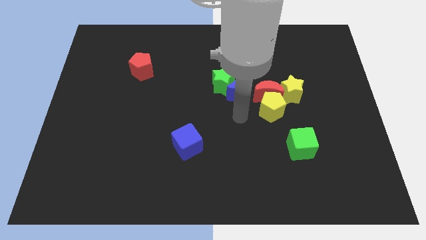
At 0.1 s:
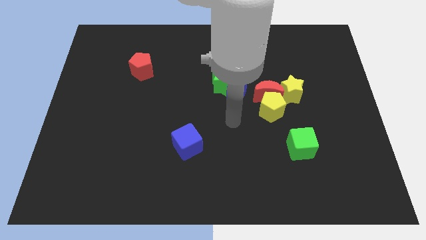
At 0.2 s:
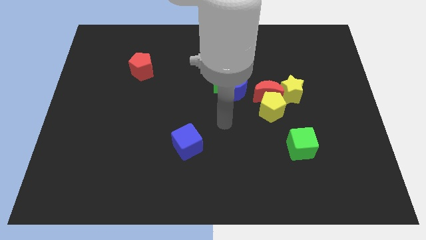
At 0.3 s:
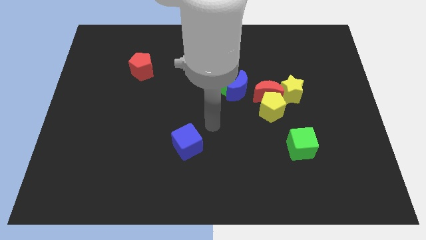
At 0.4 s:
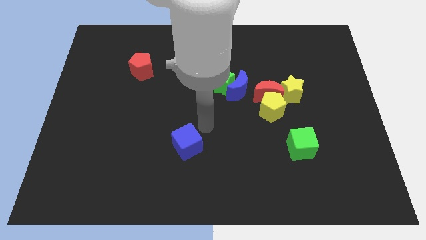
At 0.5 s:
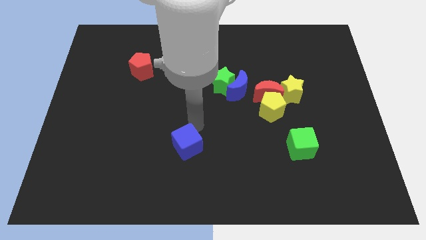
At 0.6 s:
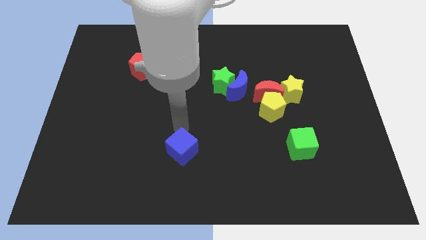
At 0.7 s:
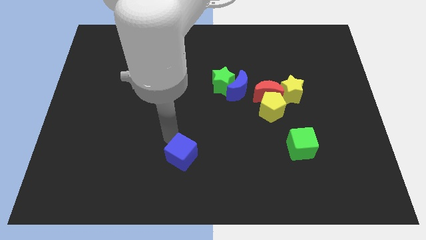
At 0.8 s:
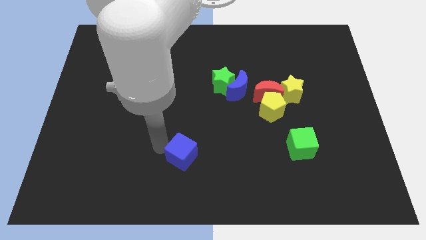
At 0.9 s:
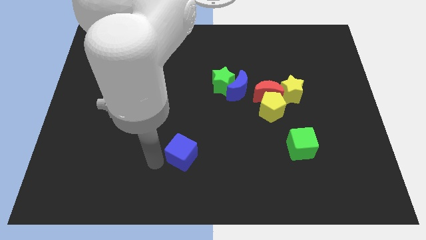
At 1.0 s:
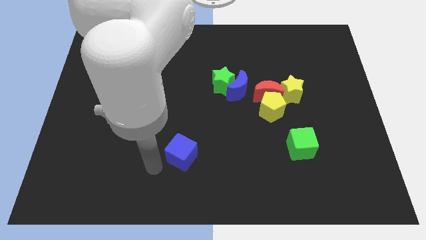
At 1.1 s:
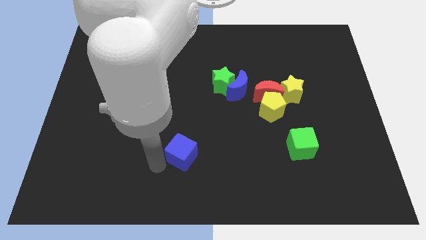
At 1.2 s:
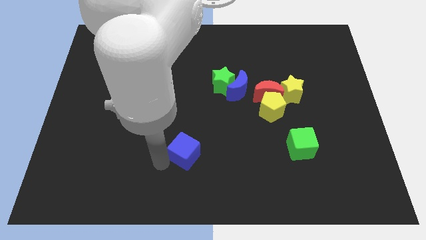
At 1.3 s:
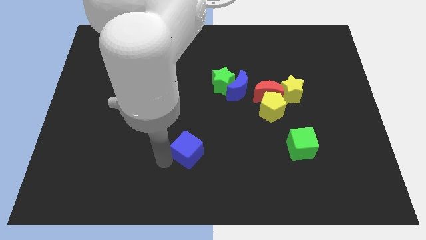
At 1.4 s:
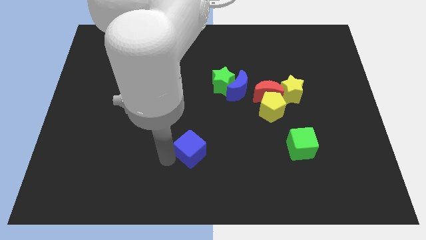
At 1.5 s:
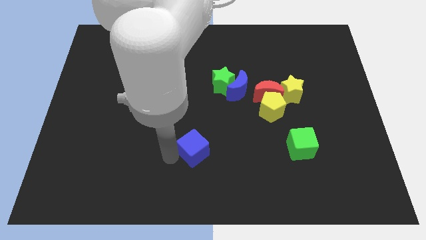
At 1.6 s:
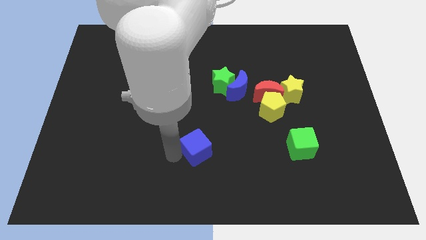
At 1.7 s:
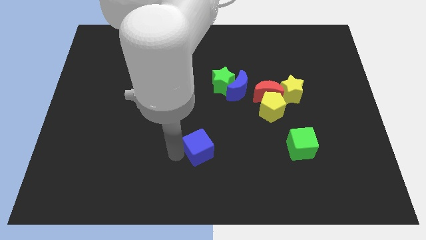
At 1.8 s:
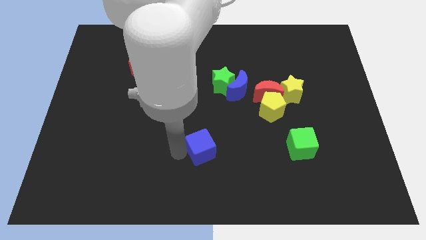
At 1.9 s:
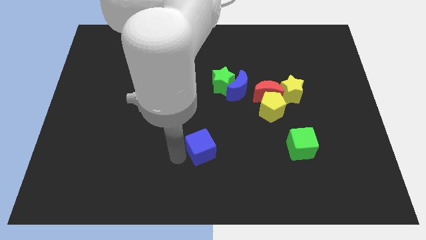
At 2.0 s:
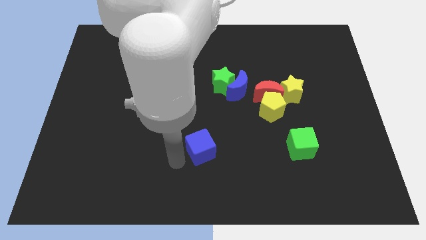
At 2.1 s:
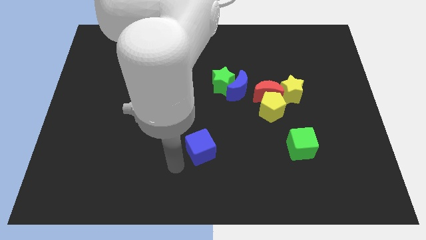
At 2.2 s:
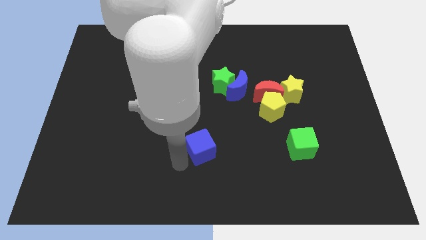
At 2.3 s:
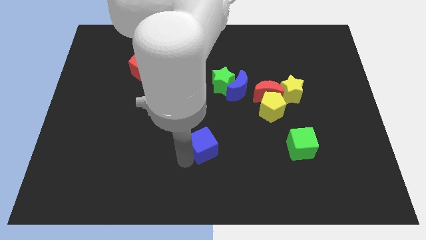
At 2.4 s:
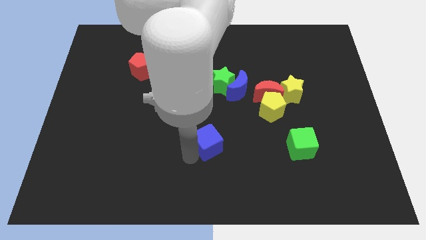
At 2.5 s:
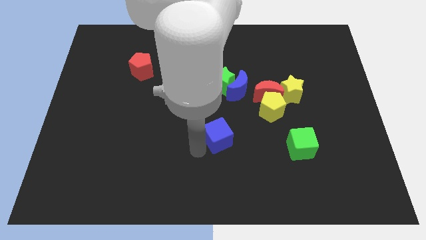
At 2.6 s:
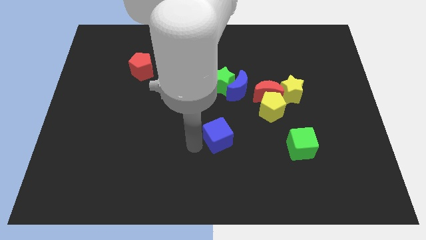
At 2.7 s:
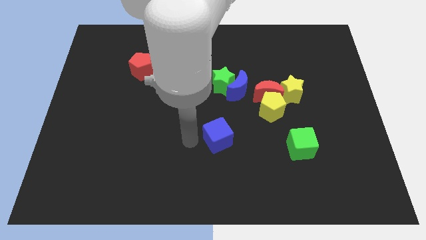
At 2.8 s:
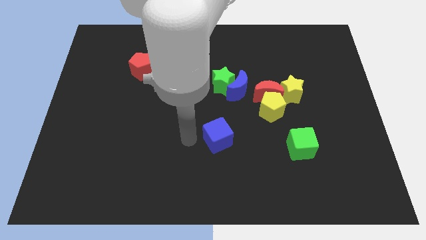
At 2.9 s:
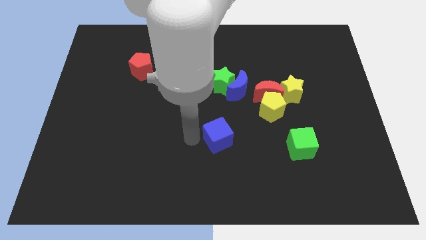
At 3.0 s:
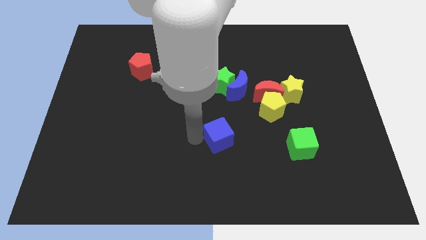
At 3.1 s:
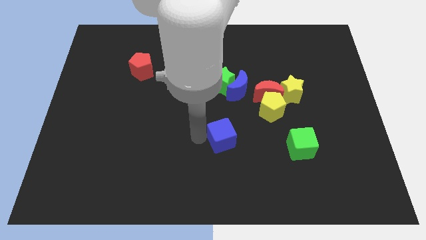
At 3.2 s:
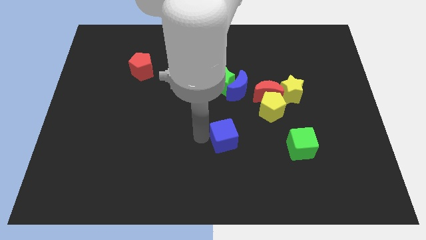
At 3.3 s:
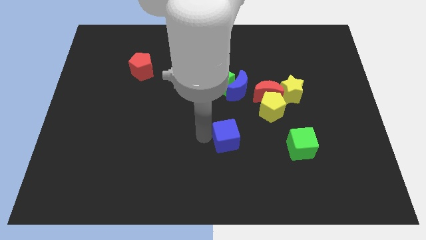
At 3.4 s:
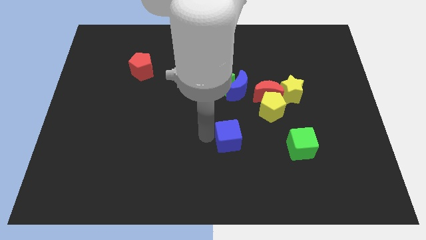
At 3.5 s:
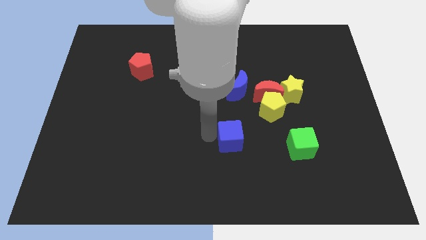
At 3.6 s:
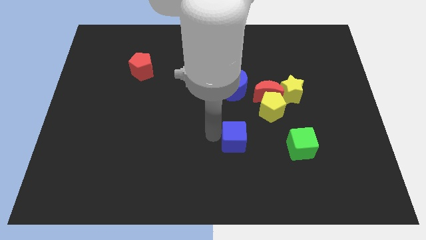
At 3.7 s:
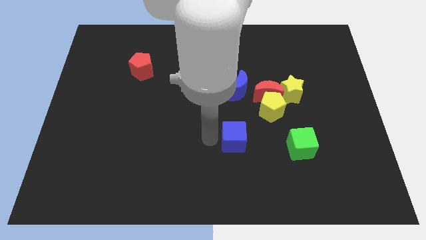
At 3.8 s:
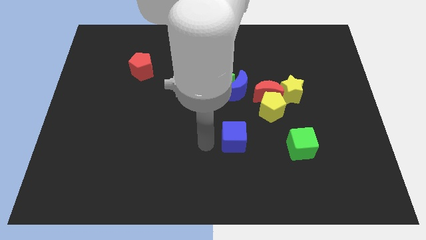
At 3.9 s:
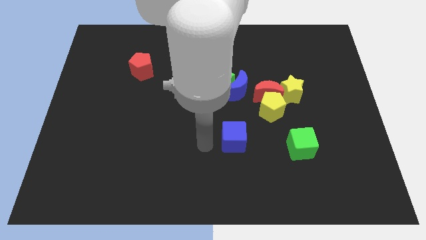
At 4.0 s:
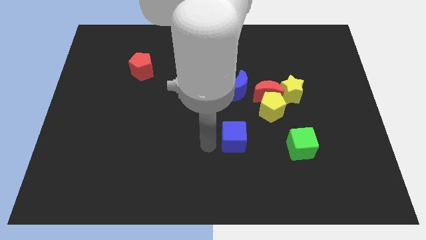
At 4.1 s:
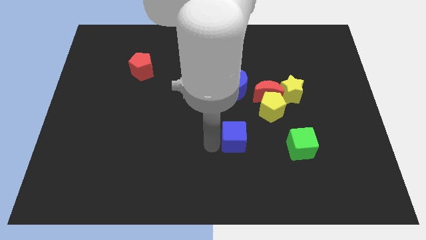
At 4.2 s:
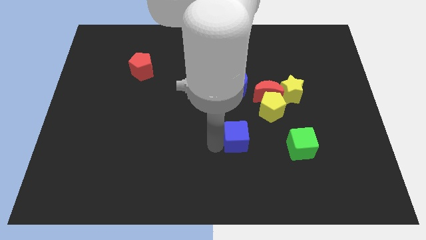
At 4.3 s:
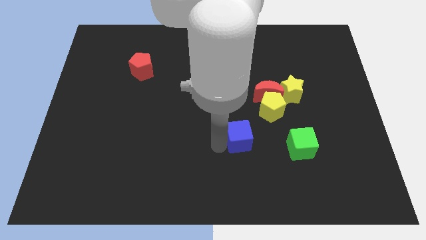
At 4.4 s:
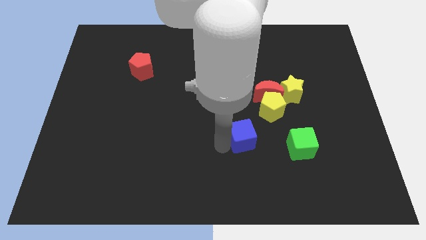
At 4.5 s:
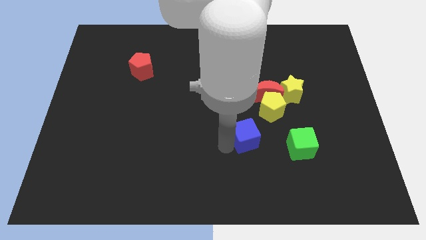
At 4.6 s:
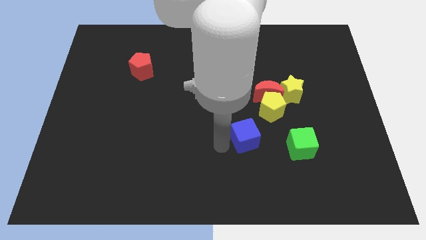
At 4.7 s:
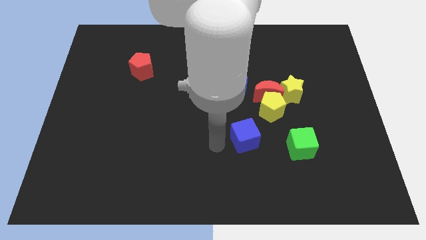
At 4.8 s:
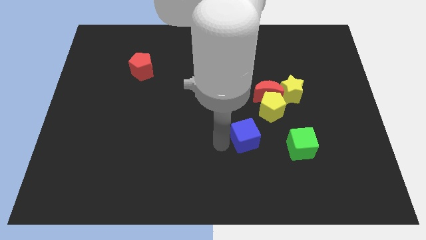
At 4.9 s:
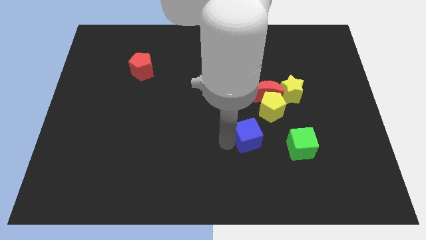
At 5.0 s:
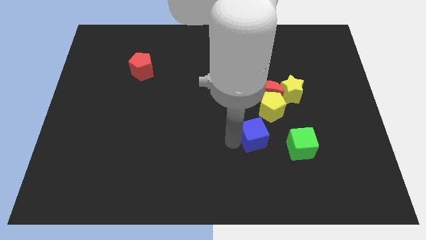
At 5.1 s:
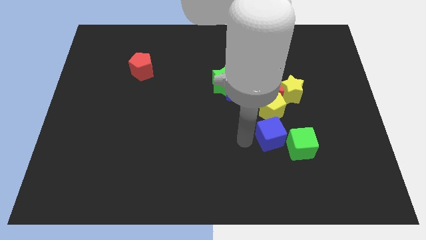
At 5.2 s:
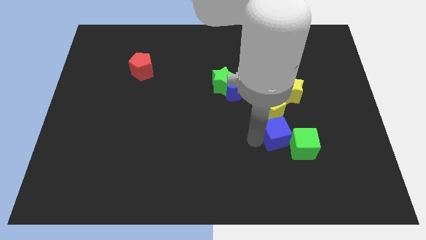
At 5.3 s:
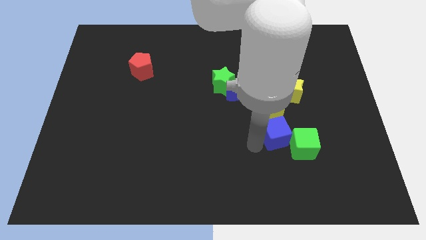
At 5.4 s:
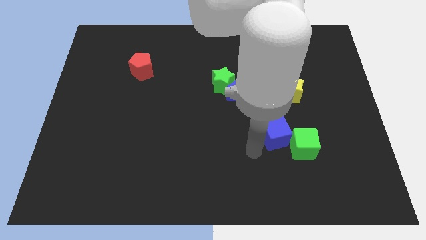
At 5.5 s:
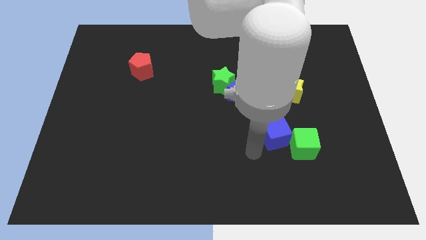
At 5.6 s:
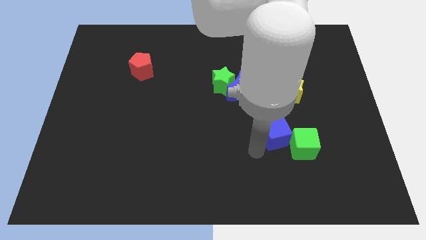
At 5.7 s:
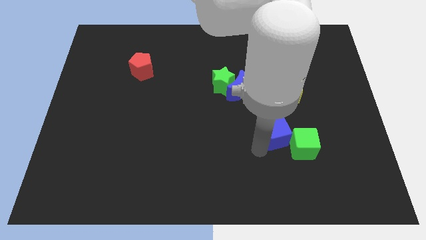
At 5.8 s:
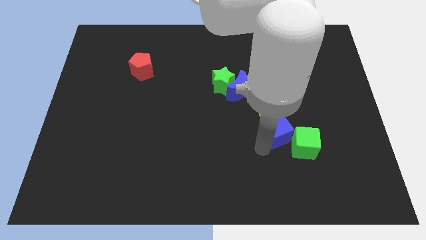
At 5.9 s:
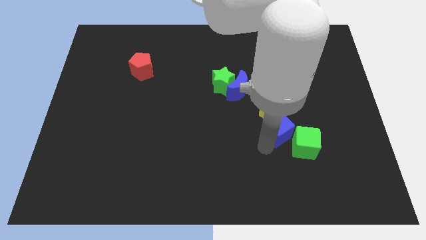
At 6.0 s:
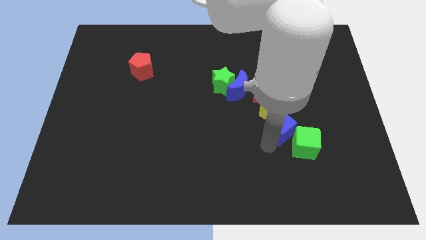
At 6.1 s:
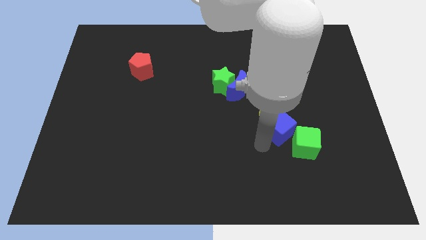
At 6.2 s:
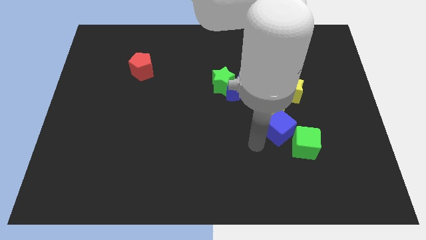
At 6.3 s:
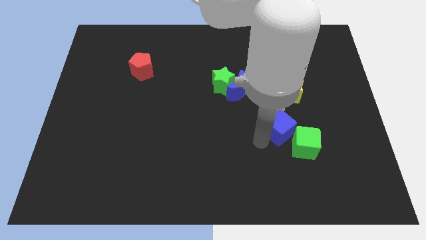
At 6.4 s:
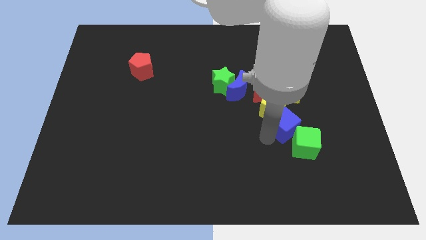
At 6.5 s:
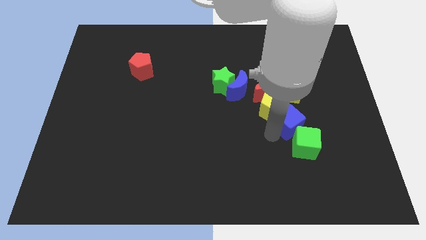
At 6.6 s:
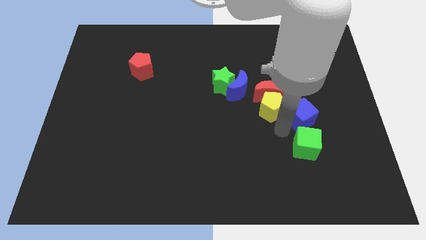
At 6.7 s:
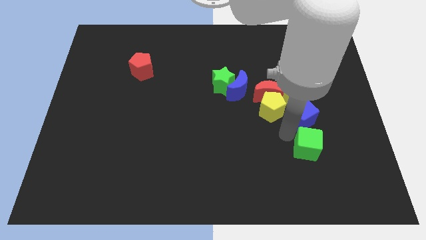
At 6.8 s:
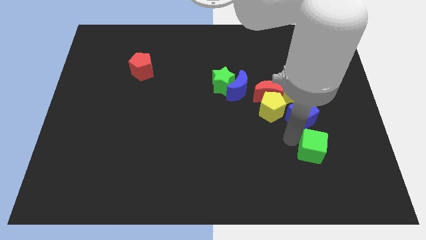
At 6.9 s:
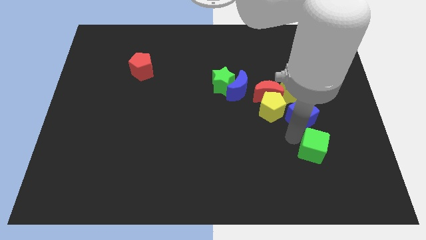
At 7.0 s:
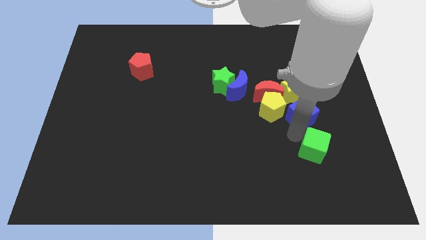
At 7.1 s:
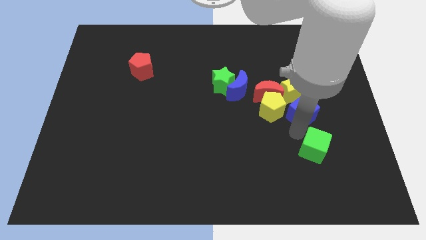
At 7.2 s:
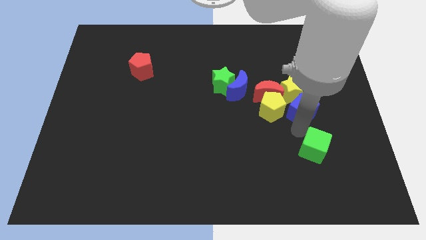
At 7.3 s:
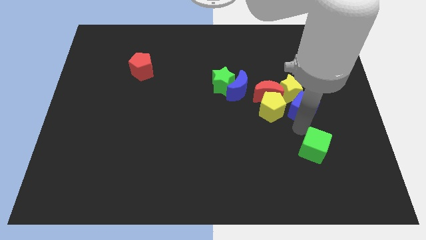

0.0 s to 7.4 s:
slide the blue cube just right of the red moon
